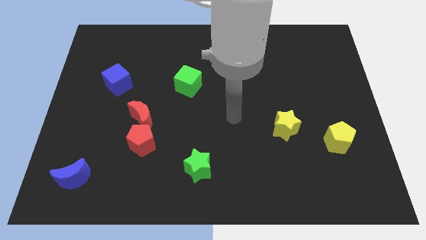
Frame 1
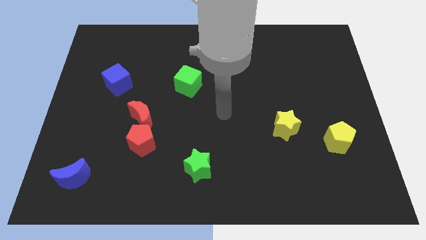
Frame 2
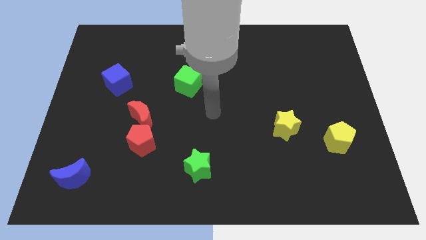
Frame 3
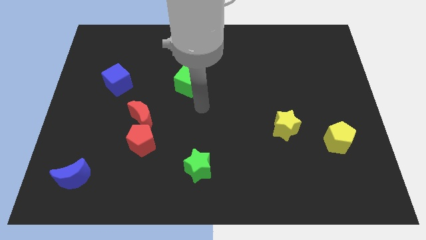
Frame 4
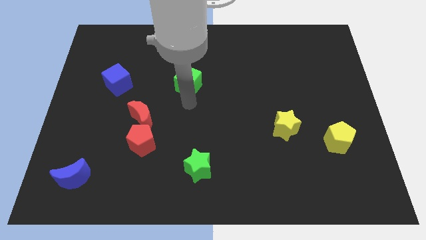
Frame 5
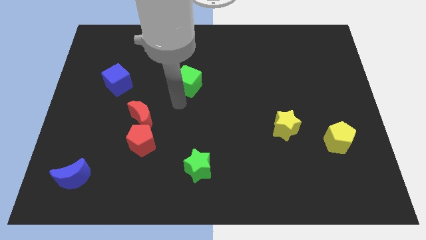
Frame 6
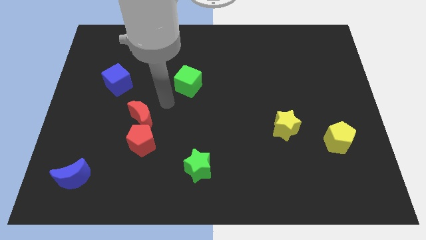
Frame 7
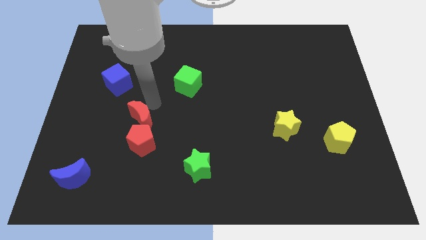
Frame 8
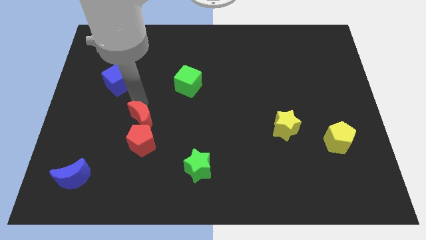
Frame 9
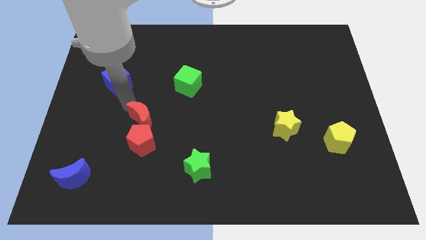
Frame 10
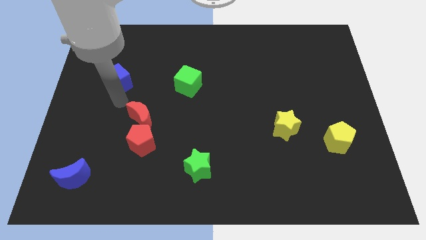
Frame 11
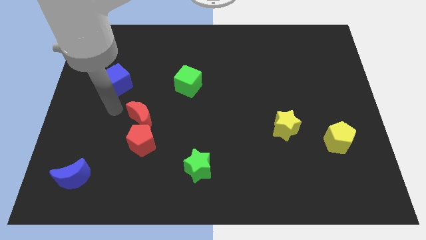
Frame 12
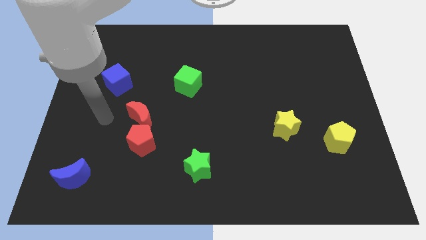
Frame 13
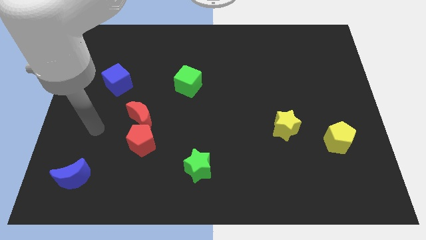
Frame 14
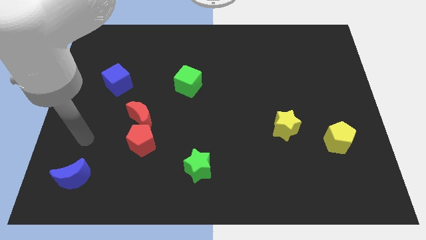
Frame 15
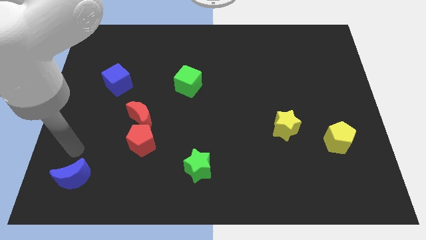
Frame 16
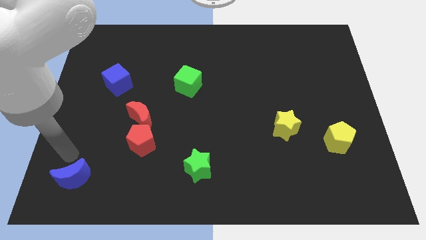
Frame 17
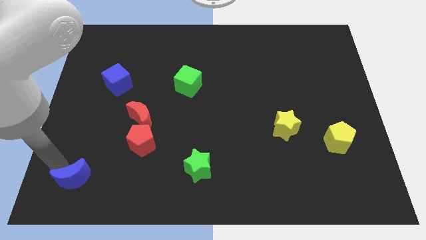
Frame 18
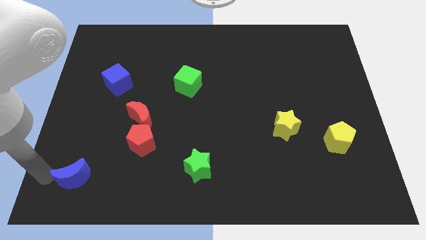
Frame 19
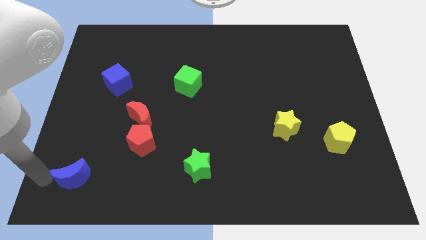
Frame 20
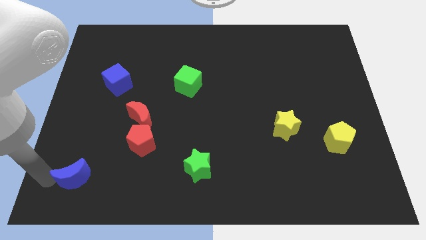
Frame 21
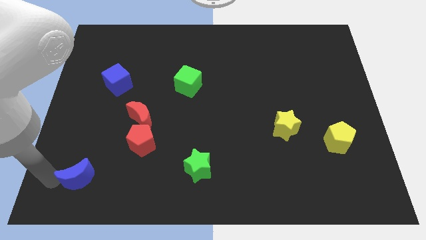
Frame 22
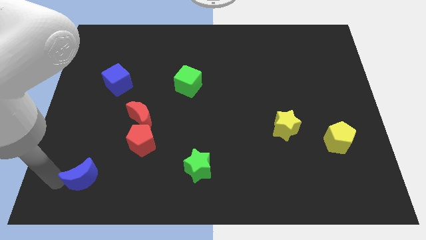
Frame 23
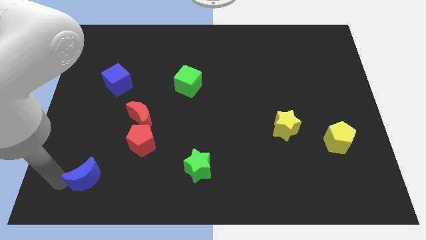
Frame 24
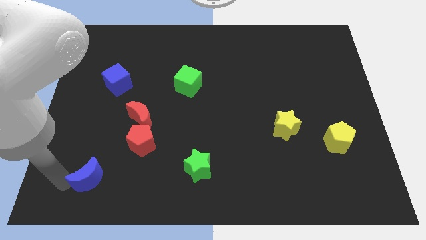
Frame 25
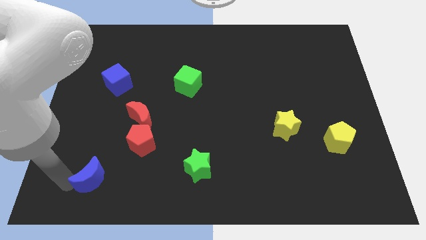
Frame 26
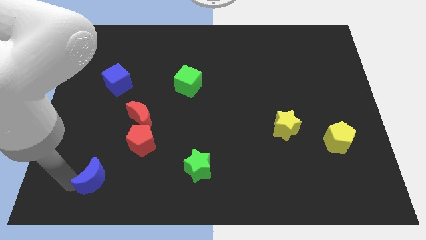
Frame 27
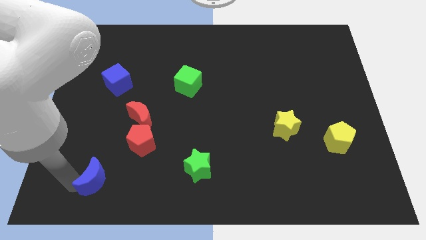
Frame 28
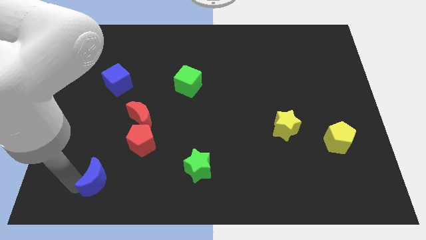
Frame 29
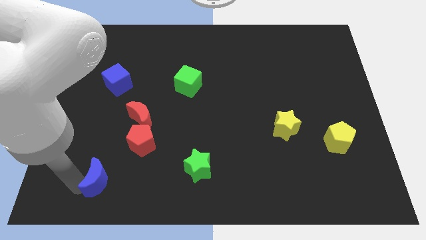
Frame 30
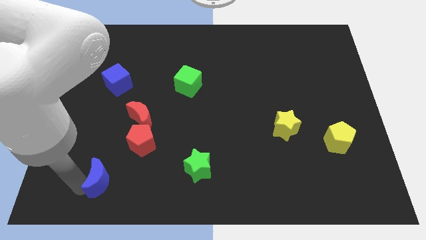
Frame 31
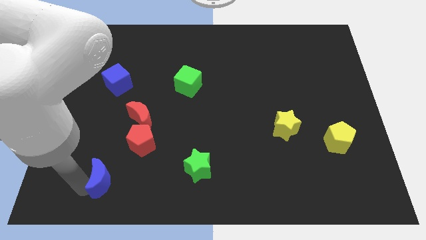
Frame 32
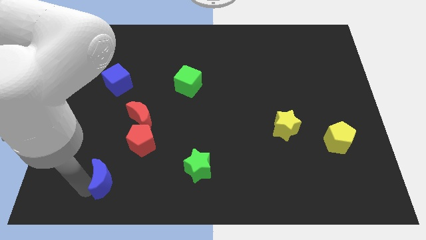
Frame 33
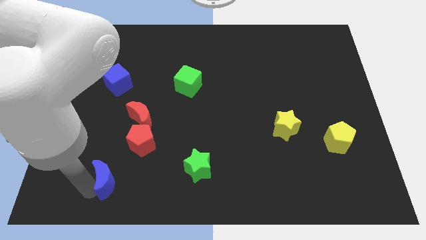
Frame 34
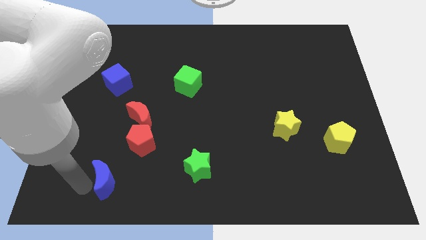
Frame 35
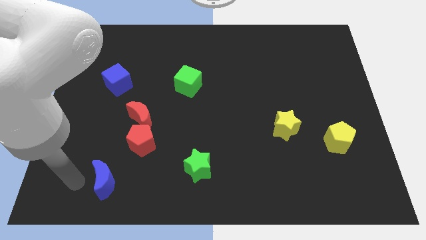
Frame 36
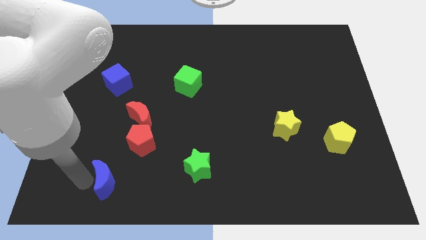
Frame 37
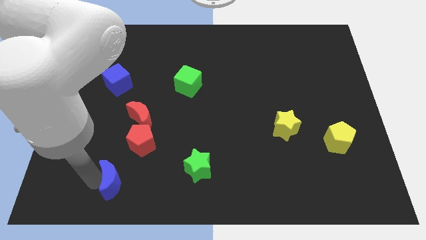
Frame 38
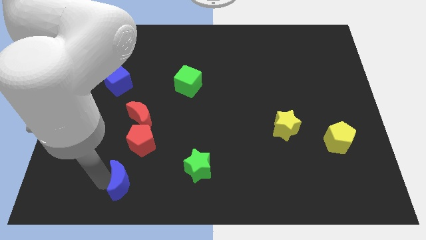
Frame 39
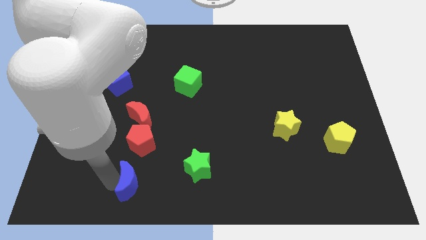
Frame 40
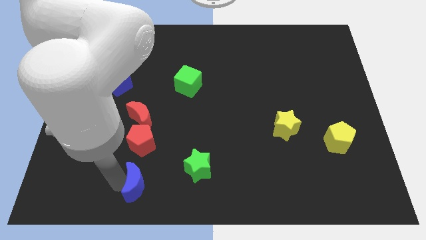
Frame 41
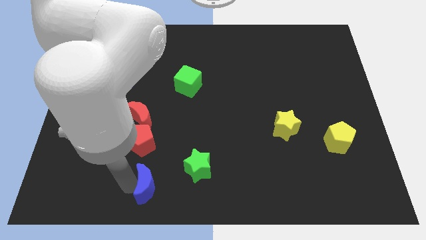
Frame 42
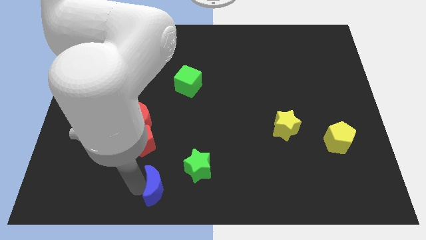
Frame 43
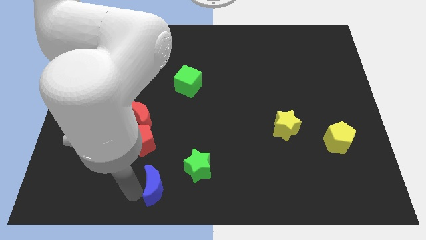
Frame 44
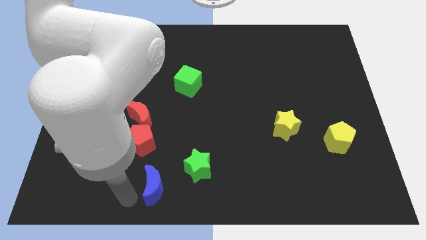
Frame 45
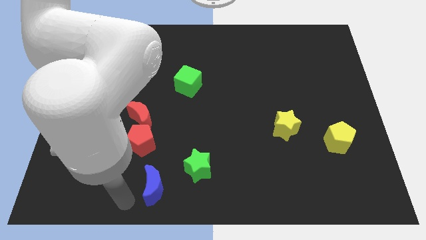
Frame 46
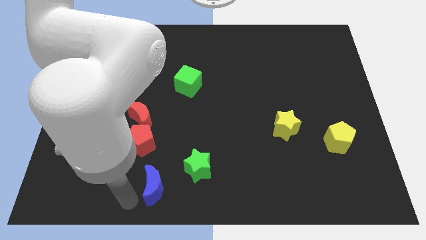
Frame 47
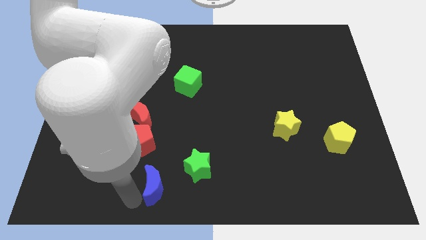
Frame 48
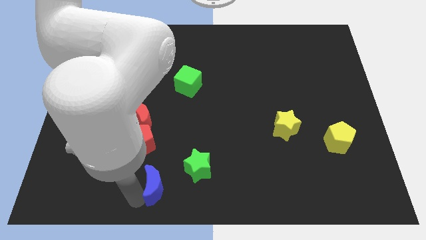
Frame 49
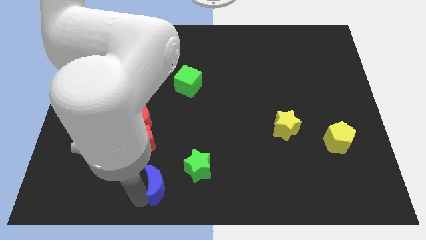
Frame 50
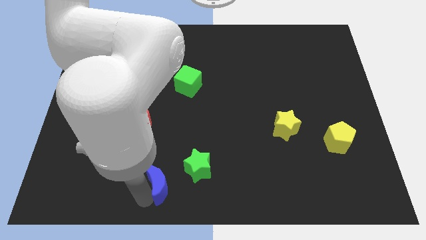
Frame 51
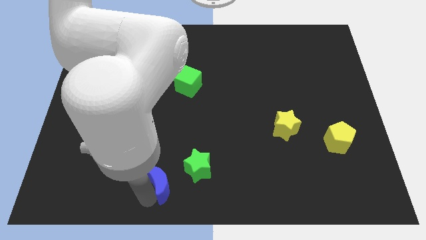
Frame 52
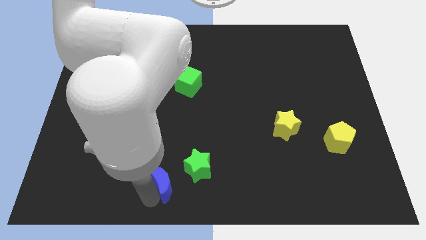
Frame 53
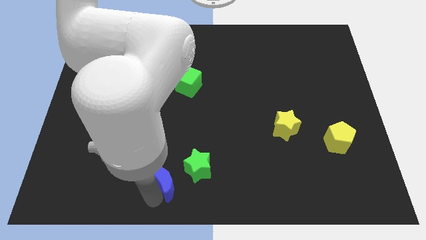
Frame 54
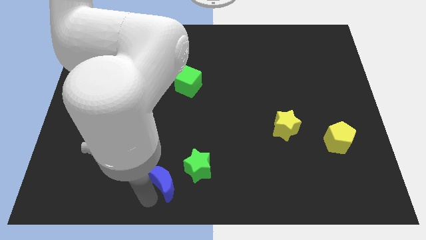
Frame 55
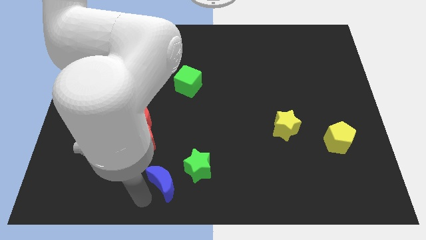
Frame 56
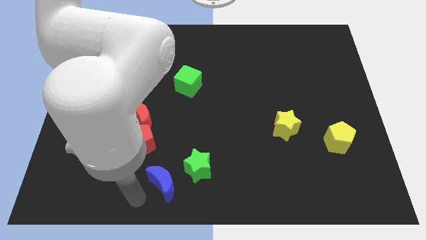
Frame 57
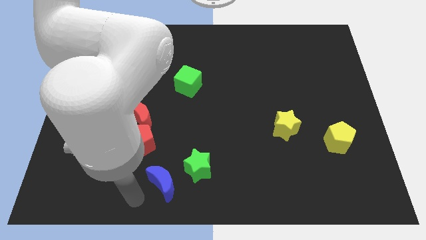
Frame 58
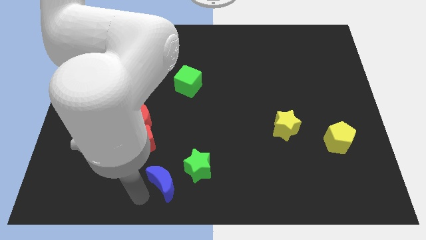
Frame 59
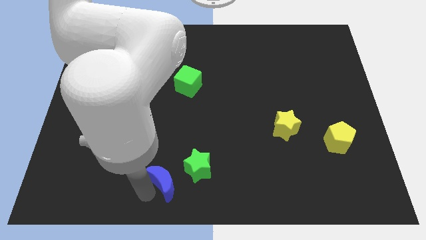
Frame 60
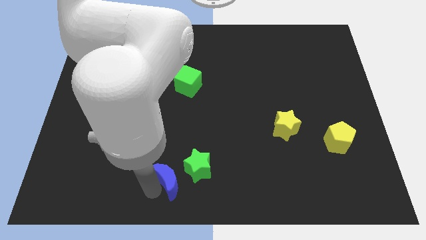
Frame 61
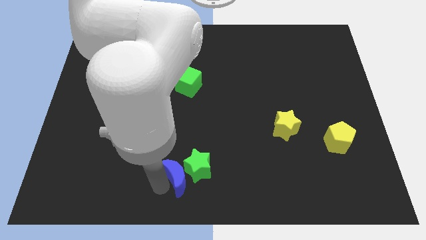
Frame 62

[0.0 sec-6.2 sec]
put the blue moon to the green star

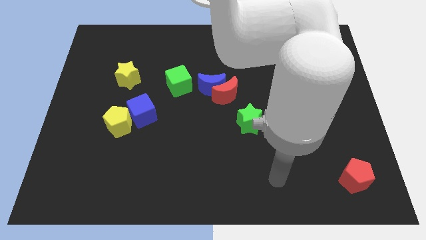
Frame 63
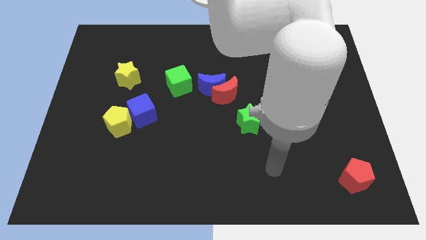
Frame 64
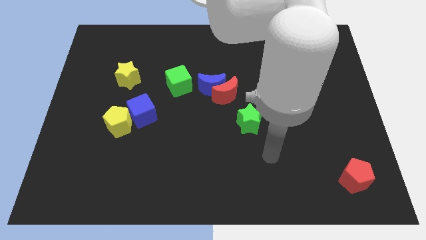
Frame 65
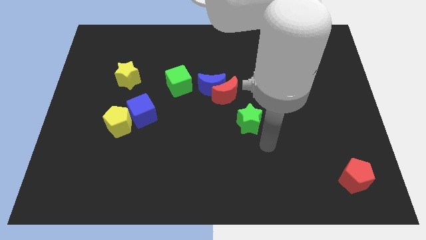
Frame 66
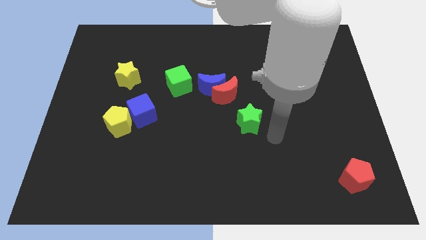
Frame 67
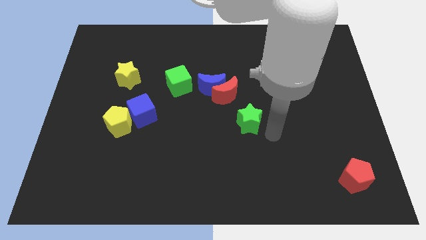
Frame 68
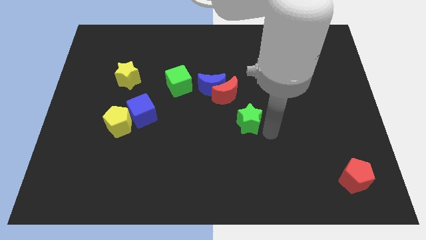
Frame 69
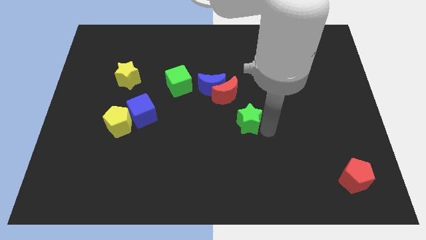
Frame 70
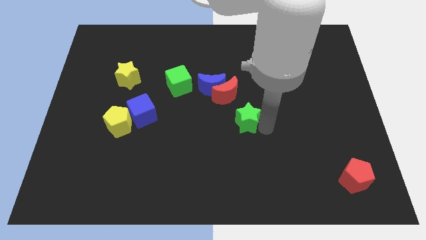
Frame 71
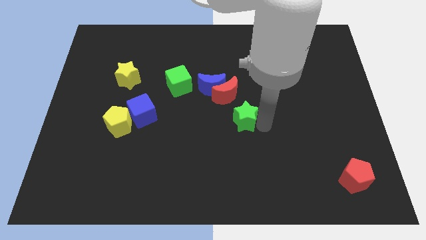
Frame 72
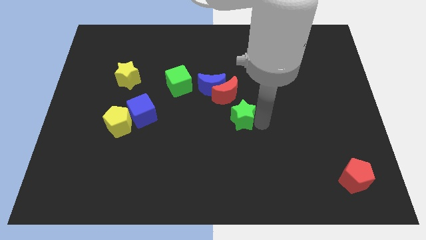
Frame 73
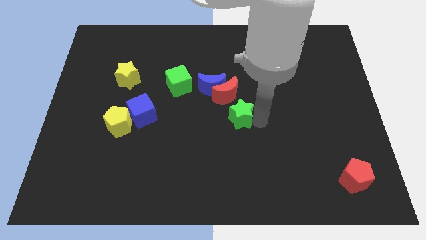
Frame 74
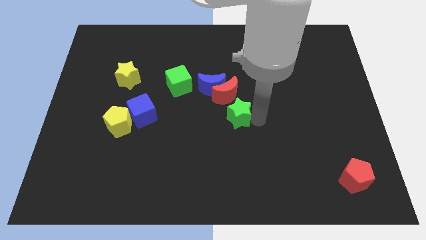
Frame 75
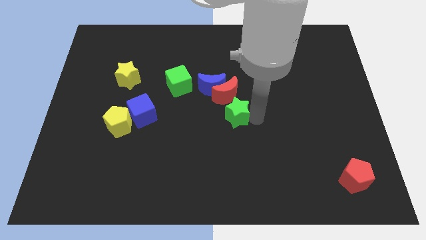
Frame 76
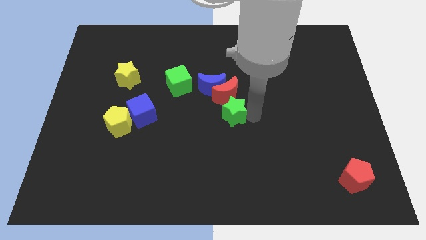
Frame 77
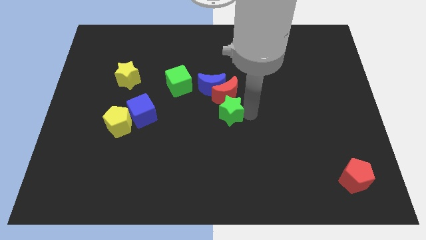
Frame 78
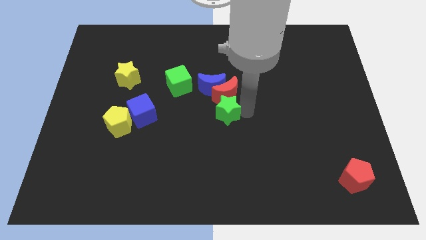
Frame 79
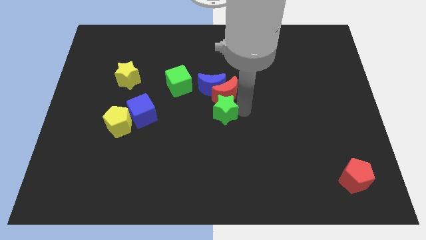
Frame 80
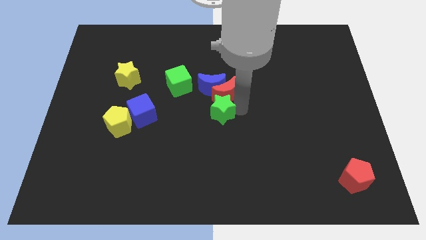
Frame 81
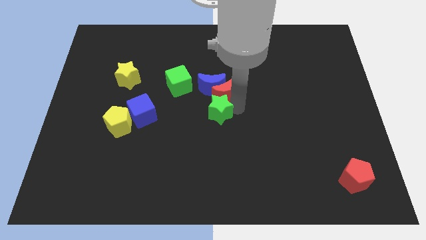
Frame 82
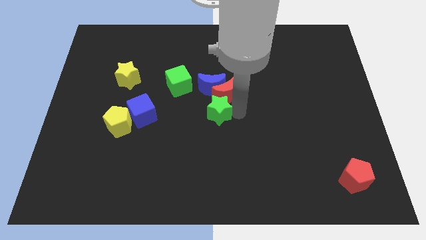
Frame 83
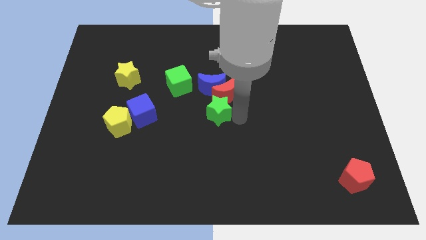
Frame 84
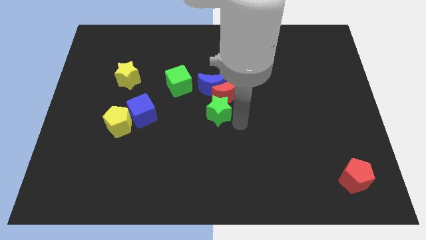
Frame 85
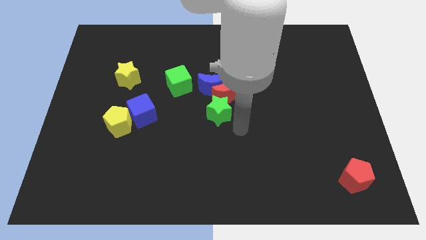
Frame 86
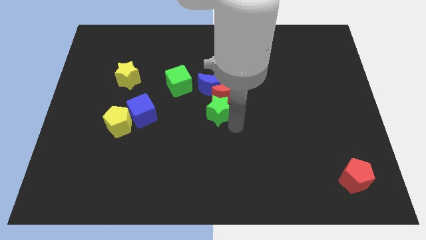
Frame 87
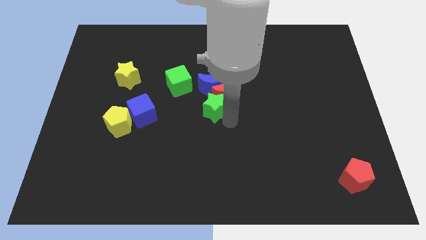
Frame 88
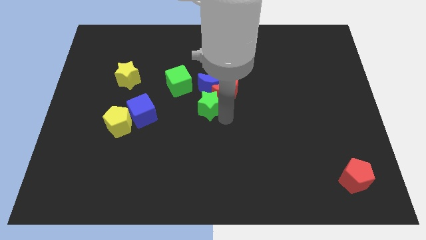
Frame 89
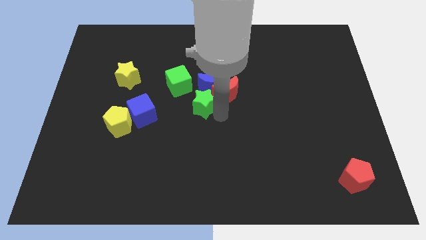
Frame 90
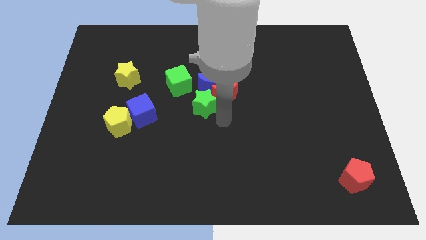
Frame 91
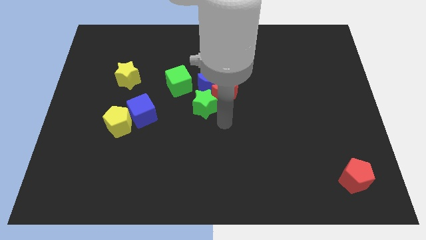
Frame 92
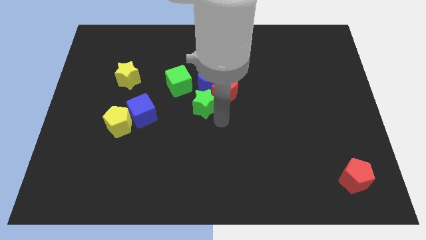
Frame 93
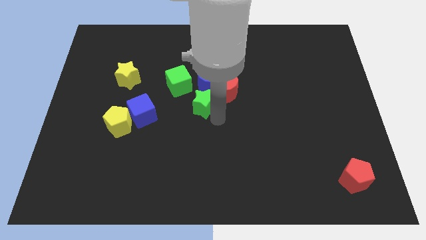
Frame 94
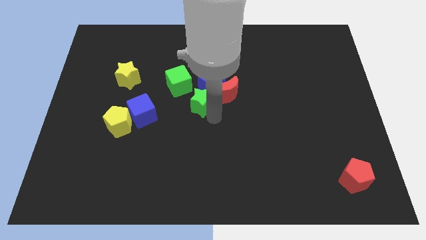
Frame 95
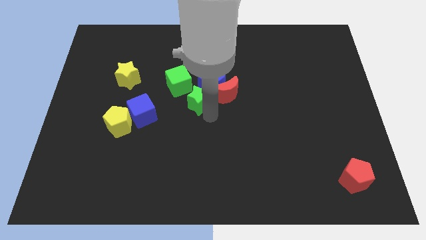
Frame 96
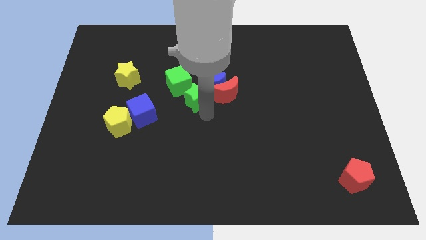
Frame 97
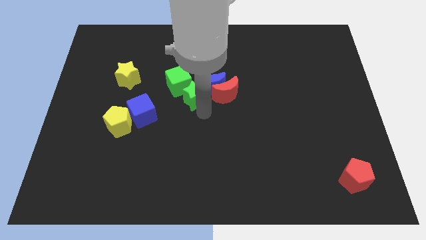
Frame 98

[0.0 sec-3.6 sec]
push the green star towards the green cube
